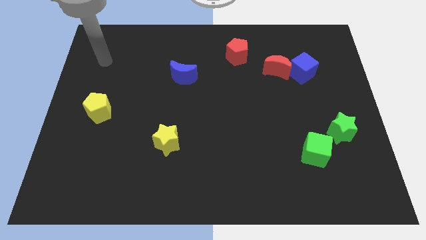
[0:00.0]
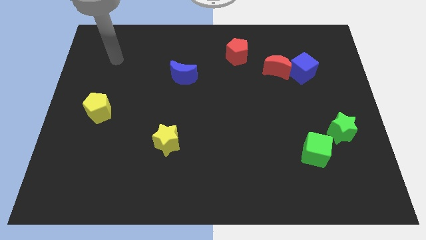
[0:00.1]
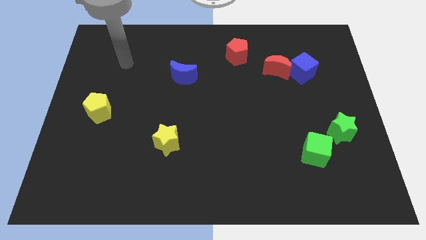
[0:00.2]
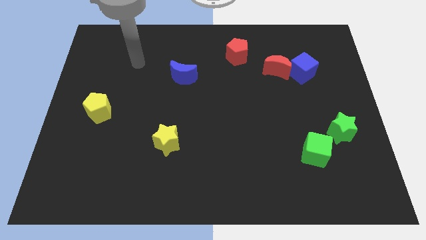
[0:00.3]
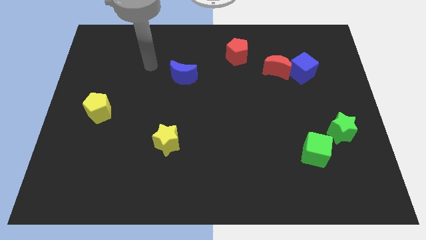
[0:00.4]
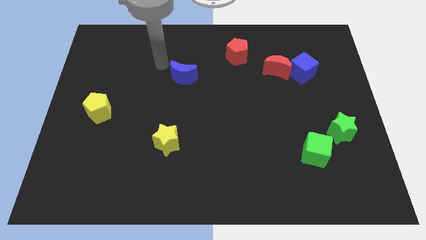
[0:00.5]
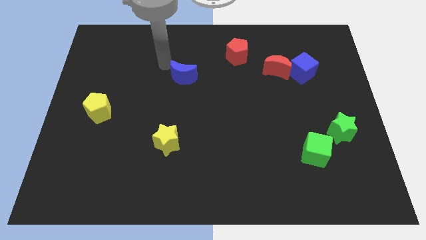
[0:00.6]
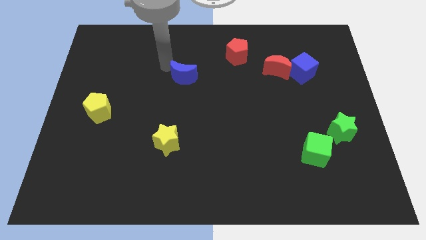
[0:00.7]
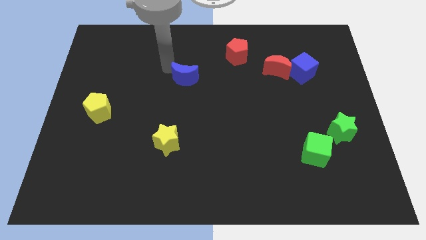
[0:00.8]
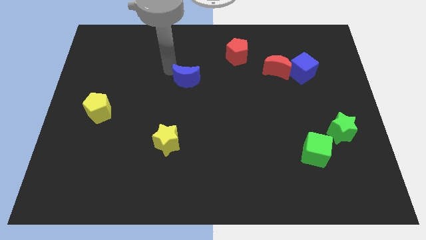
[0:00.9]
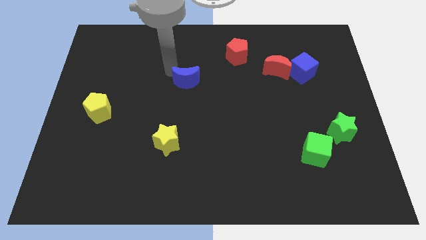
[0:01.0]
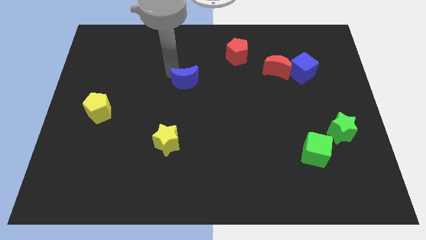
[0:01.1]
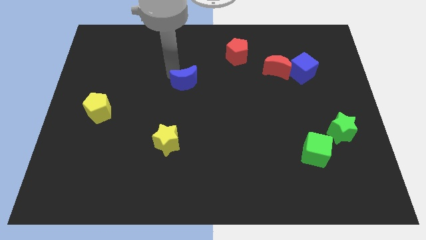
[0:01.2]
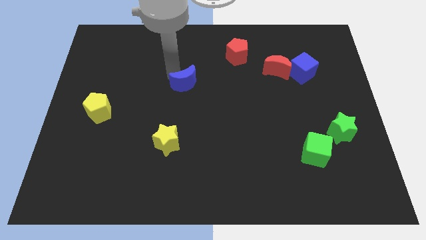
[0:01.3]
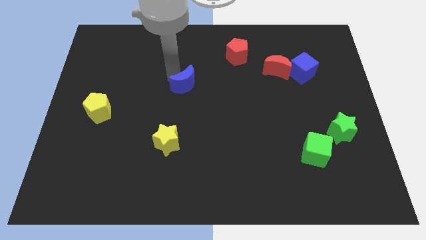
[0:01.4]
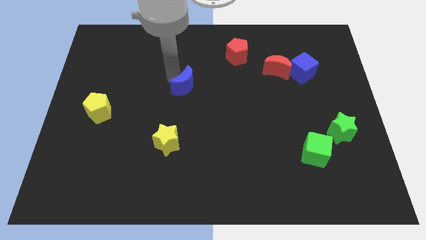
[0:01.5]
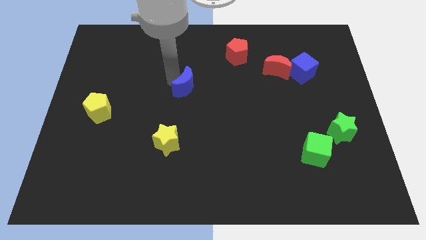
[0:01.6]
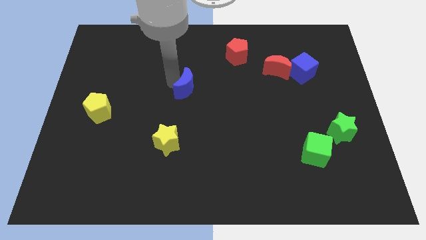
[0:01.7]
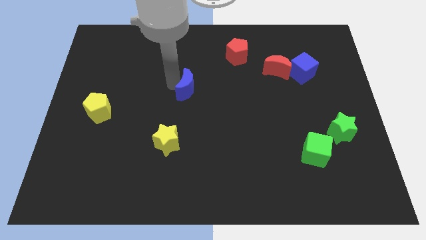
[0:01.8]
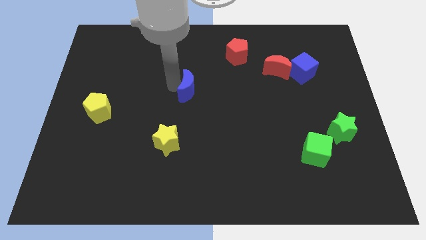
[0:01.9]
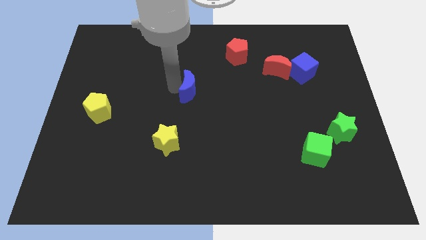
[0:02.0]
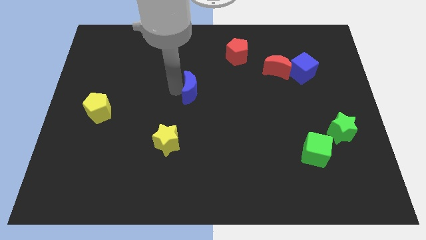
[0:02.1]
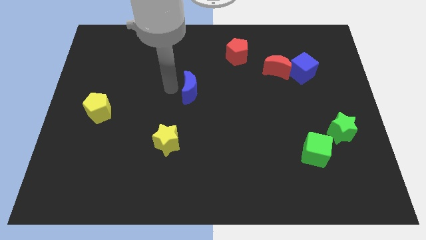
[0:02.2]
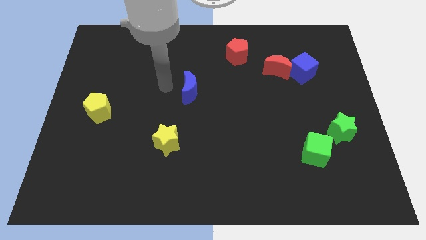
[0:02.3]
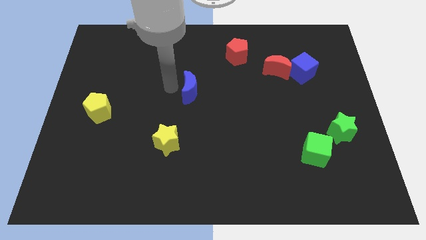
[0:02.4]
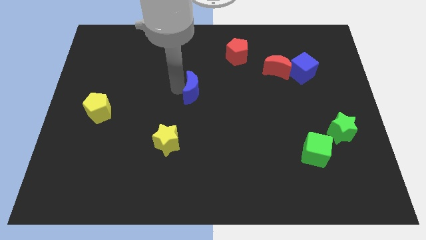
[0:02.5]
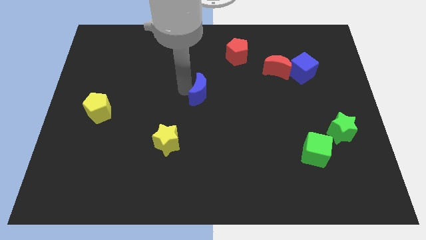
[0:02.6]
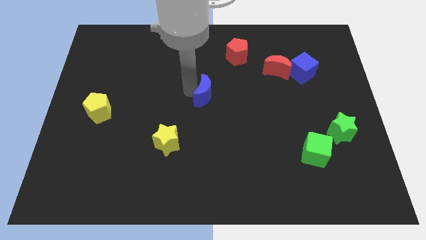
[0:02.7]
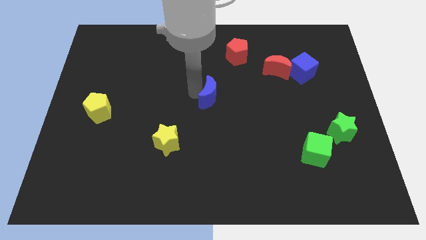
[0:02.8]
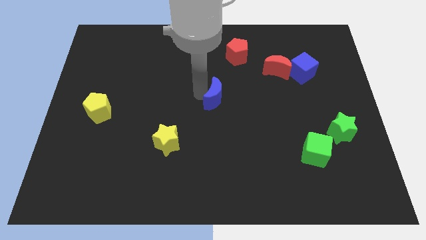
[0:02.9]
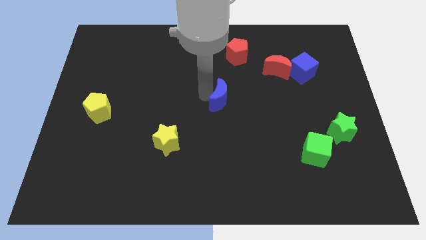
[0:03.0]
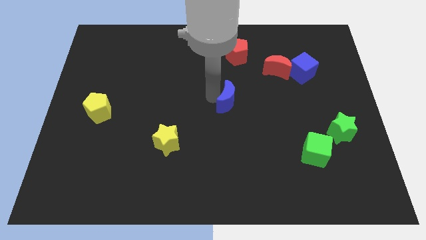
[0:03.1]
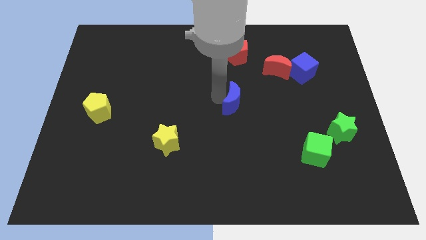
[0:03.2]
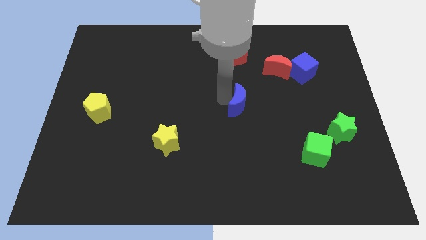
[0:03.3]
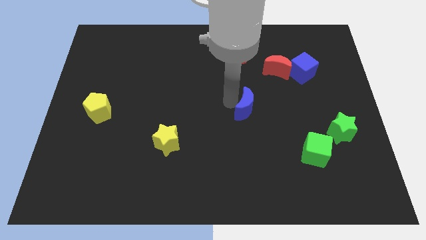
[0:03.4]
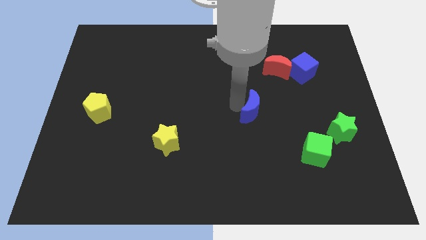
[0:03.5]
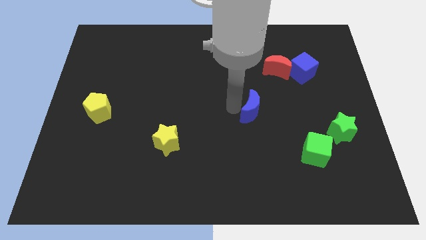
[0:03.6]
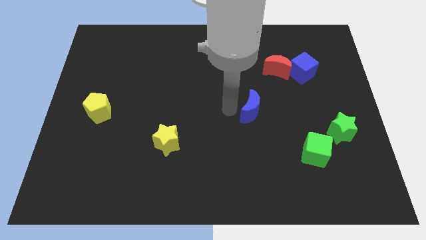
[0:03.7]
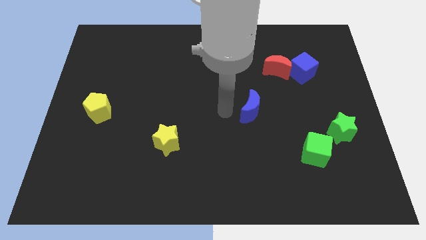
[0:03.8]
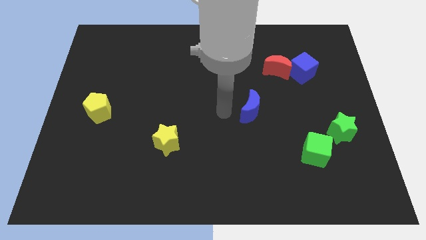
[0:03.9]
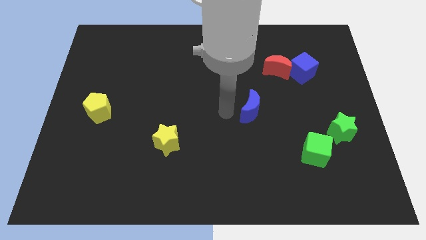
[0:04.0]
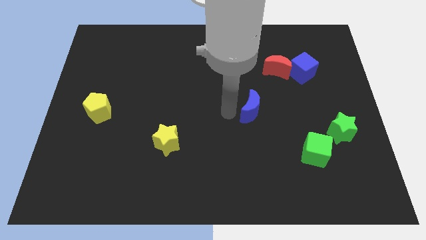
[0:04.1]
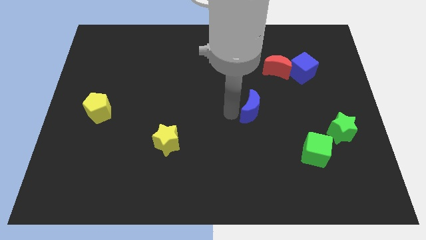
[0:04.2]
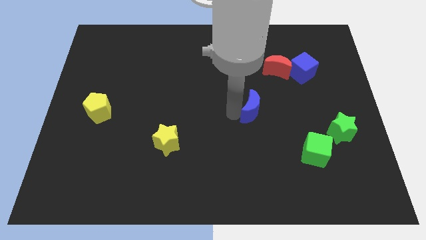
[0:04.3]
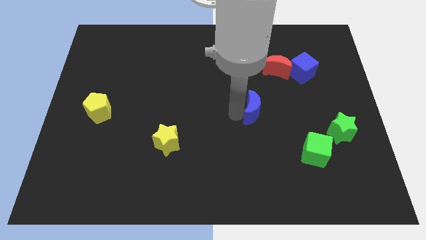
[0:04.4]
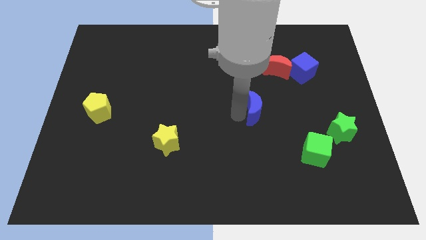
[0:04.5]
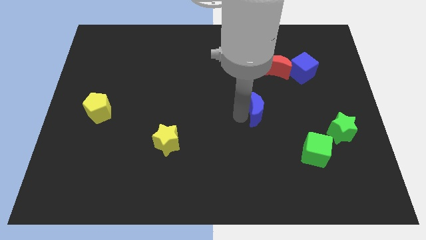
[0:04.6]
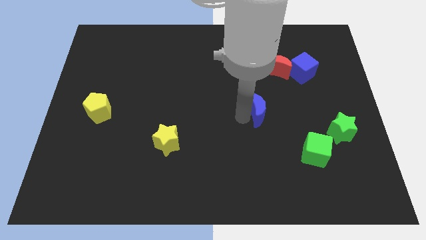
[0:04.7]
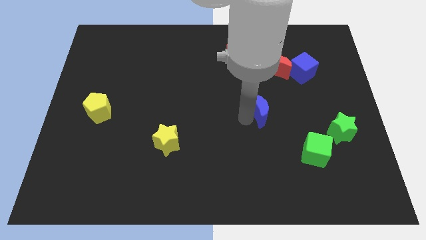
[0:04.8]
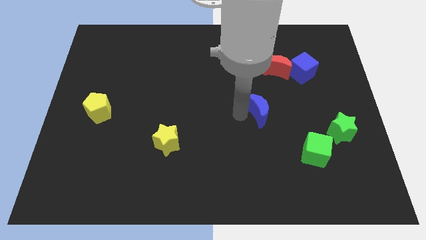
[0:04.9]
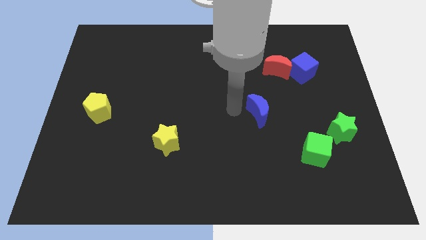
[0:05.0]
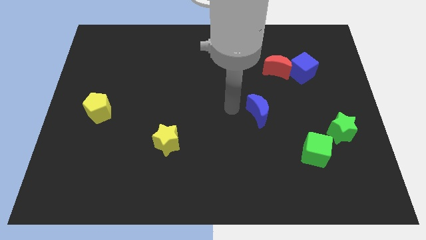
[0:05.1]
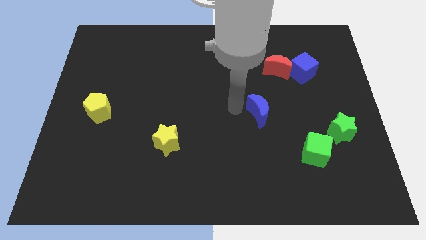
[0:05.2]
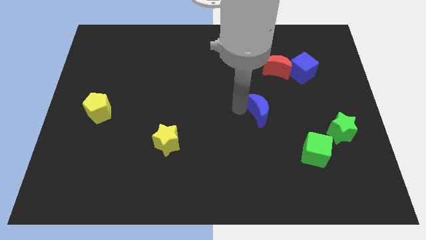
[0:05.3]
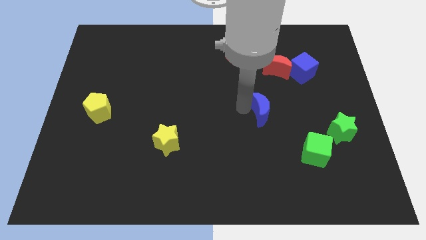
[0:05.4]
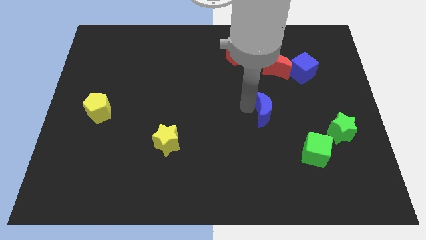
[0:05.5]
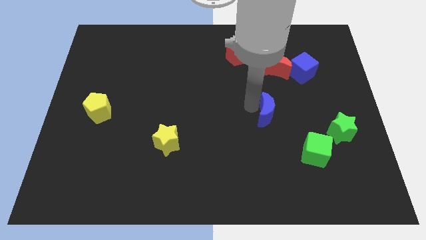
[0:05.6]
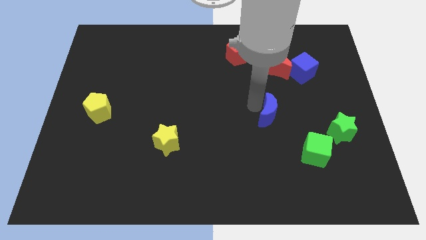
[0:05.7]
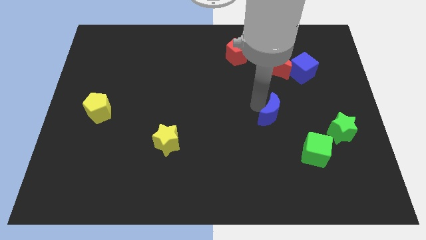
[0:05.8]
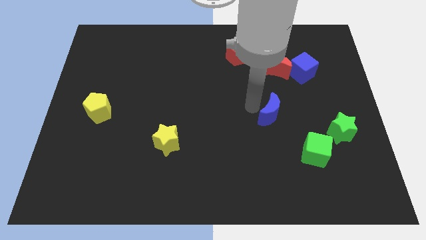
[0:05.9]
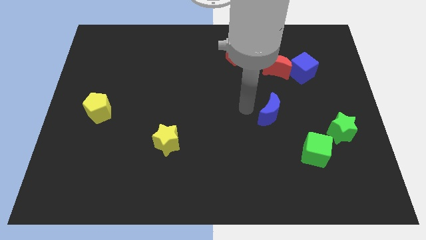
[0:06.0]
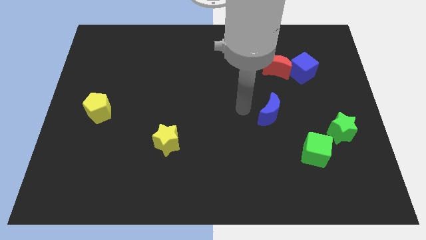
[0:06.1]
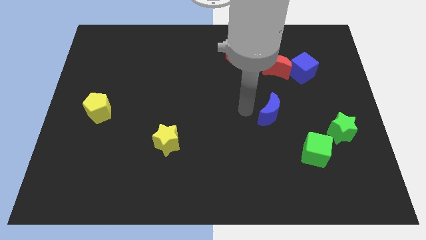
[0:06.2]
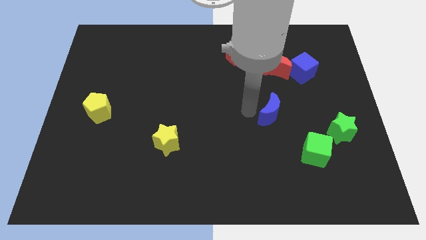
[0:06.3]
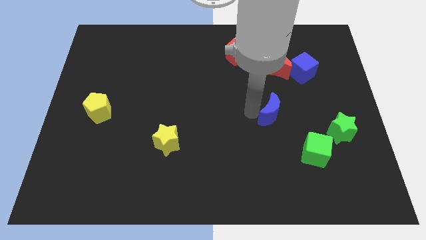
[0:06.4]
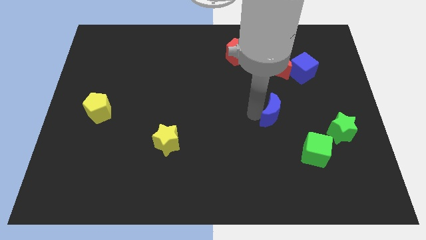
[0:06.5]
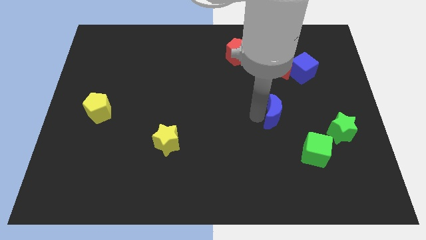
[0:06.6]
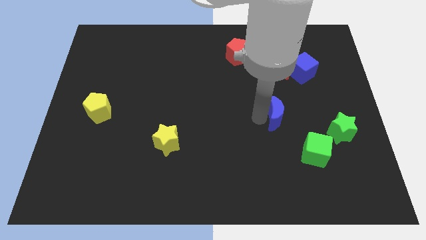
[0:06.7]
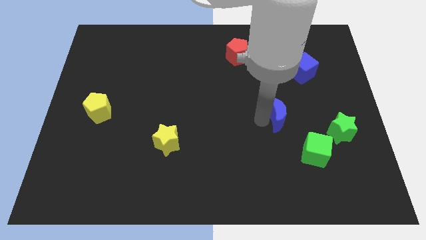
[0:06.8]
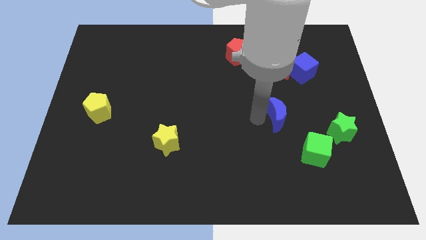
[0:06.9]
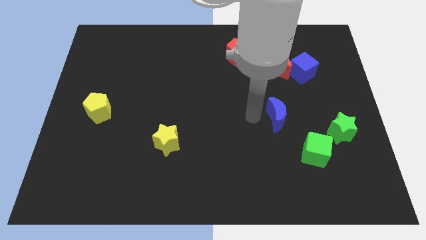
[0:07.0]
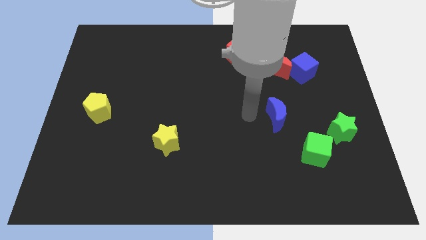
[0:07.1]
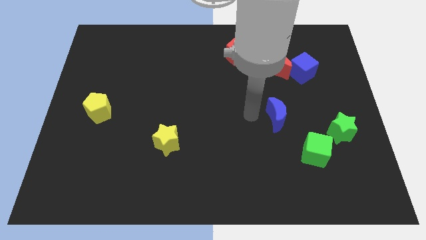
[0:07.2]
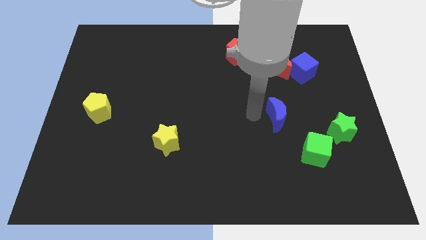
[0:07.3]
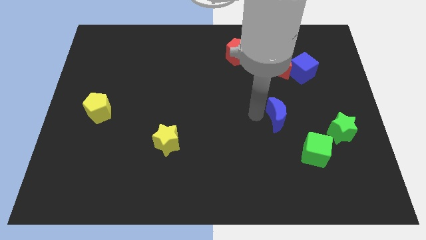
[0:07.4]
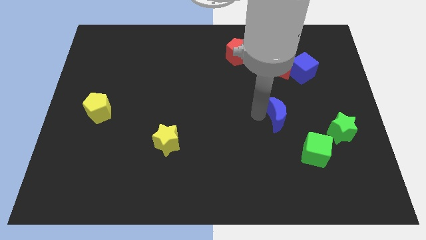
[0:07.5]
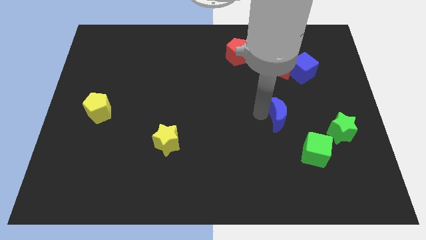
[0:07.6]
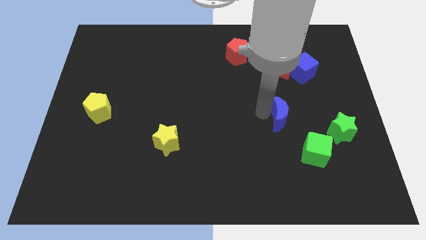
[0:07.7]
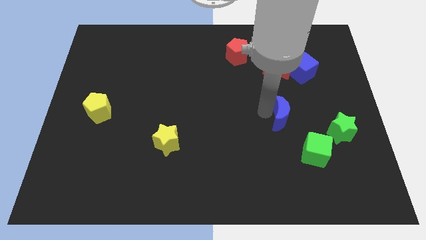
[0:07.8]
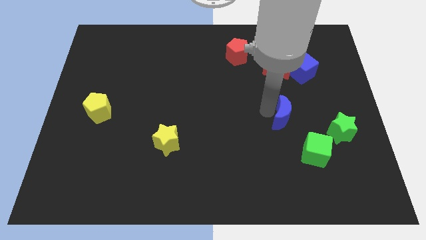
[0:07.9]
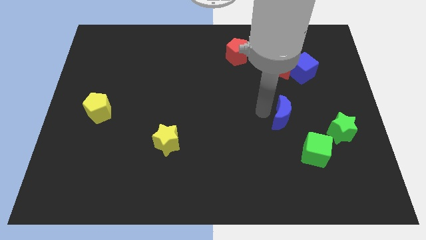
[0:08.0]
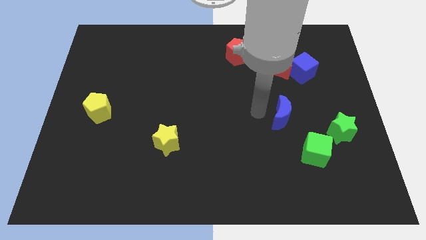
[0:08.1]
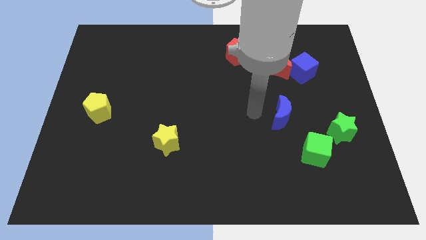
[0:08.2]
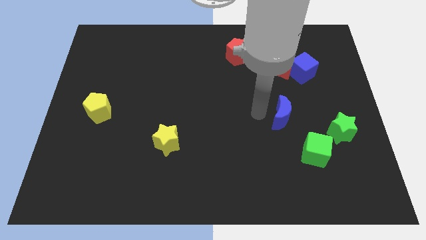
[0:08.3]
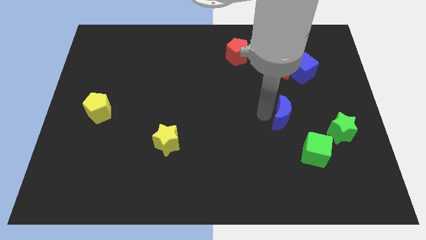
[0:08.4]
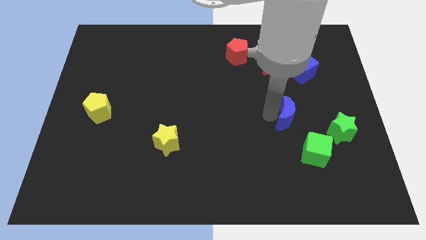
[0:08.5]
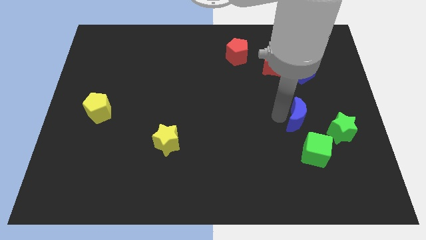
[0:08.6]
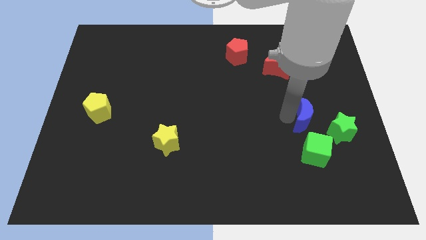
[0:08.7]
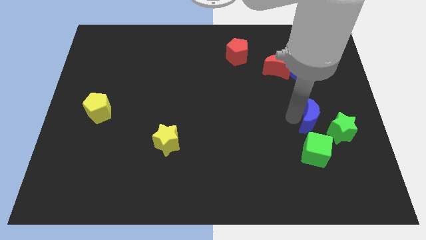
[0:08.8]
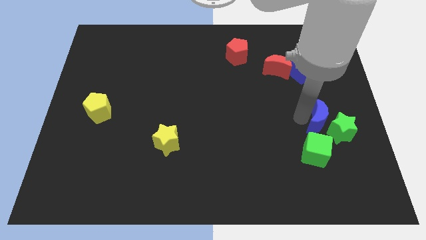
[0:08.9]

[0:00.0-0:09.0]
push the blue moon to the green star
